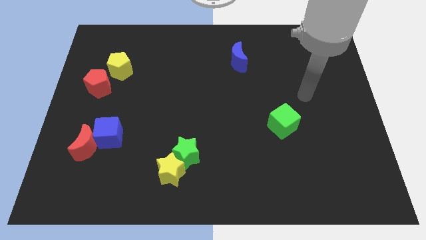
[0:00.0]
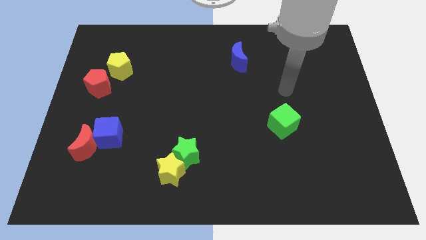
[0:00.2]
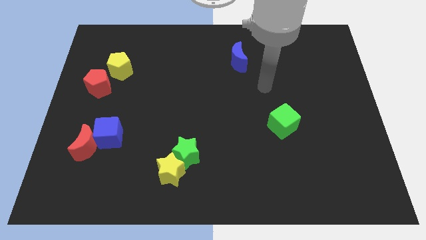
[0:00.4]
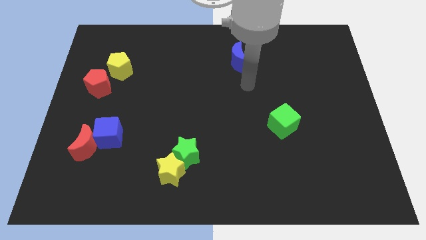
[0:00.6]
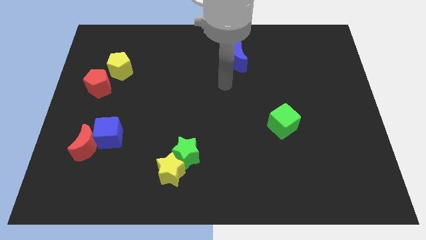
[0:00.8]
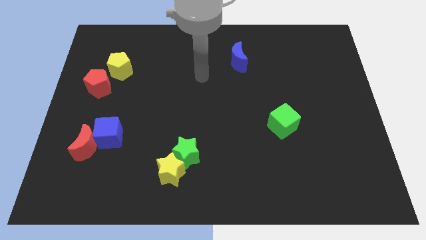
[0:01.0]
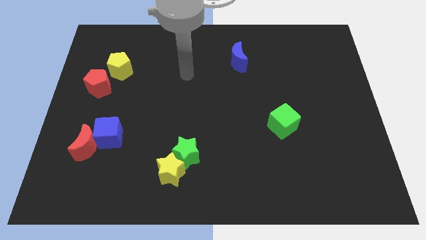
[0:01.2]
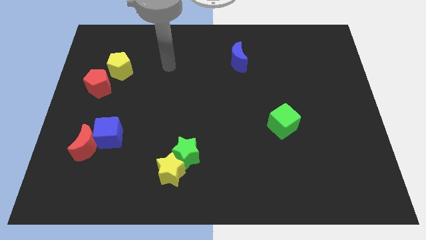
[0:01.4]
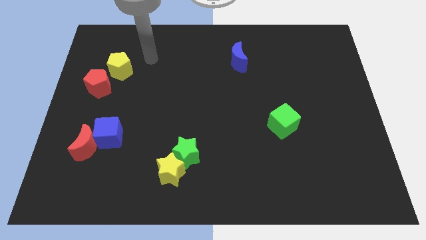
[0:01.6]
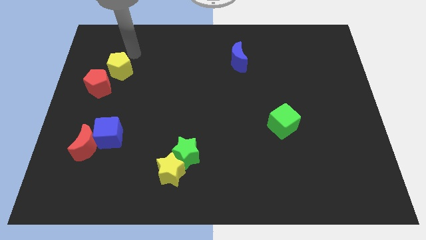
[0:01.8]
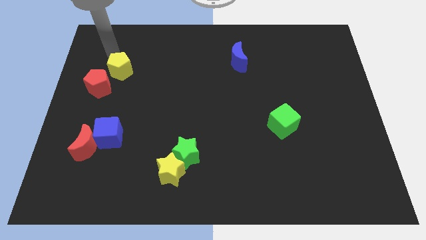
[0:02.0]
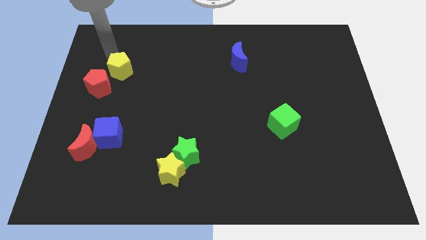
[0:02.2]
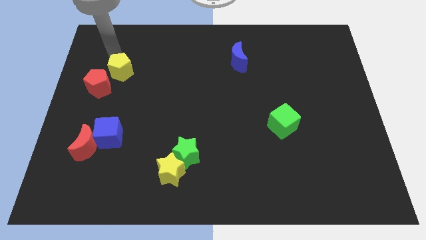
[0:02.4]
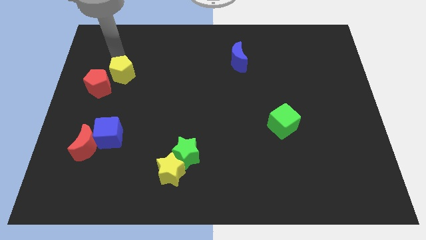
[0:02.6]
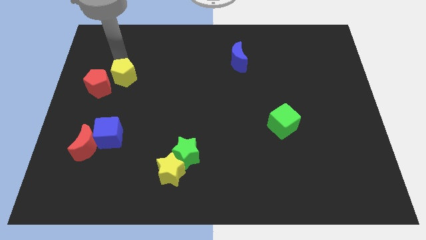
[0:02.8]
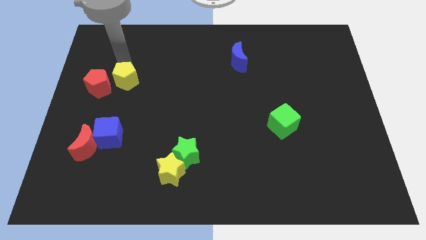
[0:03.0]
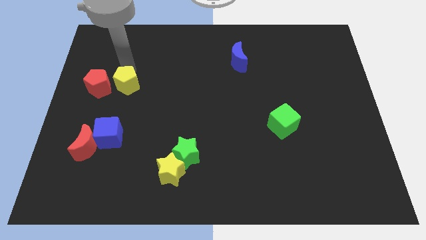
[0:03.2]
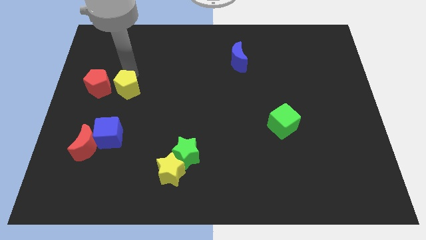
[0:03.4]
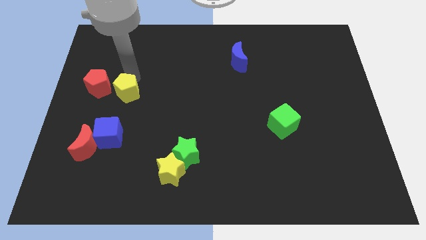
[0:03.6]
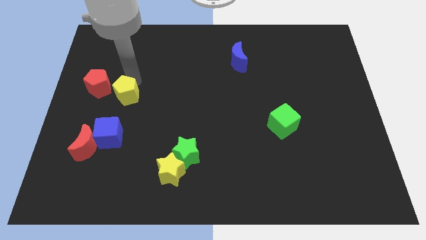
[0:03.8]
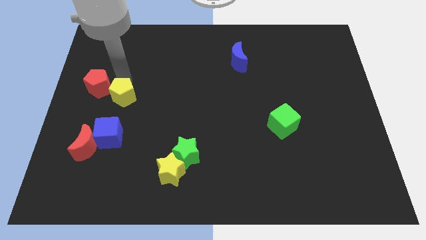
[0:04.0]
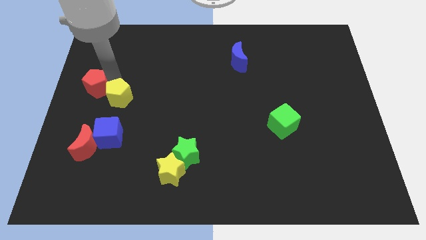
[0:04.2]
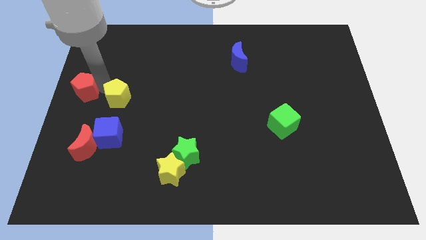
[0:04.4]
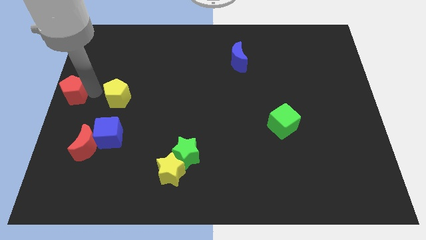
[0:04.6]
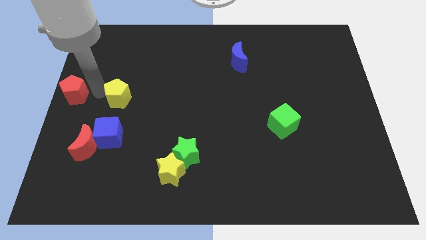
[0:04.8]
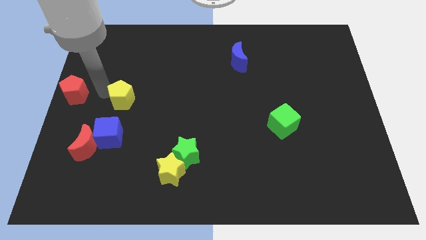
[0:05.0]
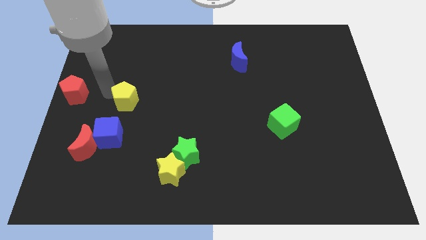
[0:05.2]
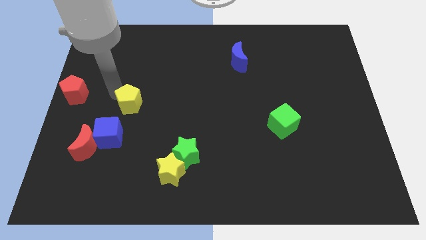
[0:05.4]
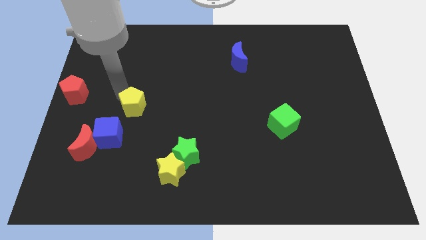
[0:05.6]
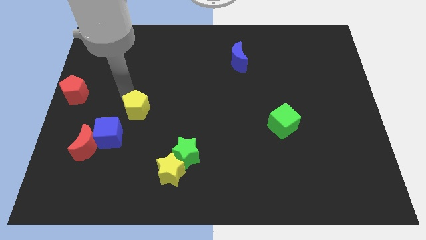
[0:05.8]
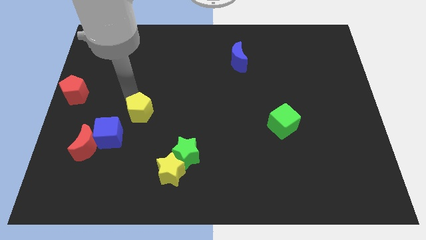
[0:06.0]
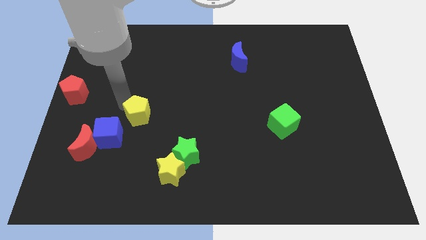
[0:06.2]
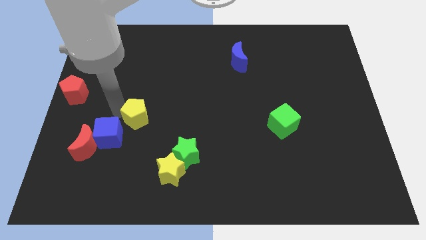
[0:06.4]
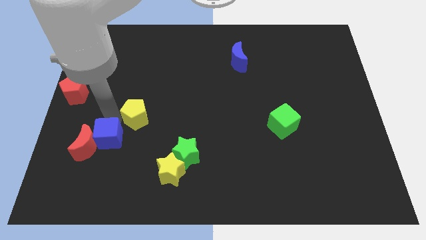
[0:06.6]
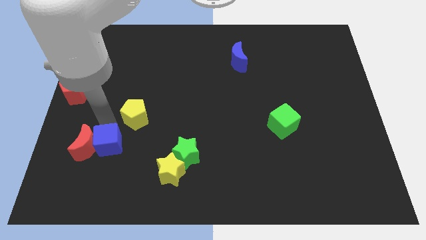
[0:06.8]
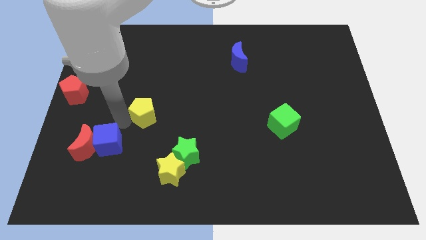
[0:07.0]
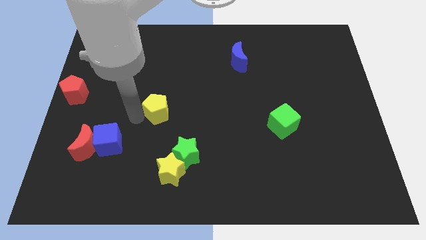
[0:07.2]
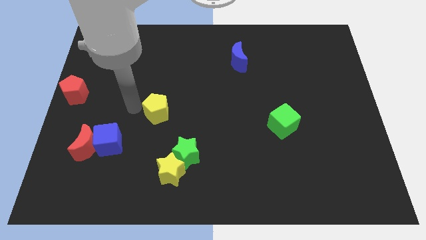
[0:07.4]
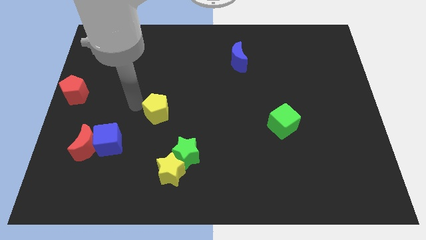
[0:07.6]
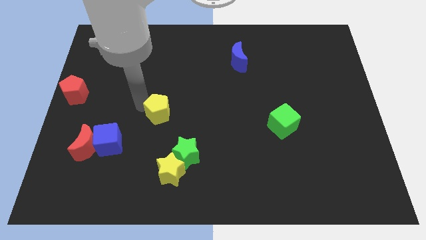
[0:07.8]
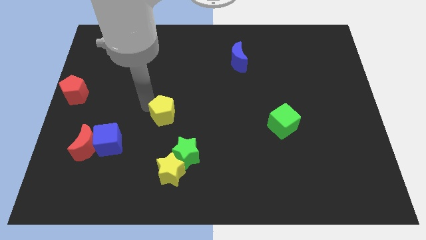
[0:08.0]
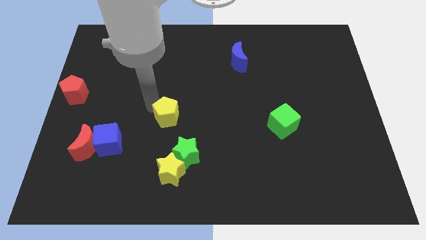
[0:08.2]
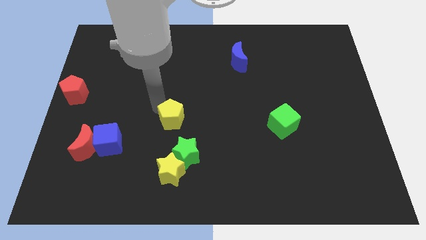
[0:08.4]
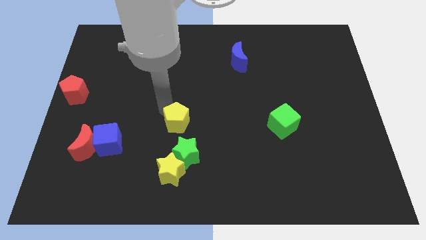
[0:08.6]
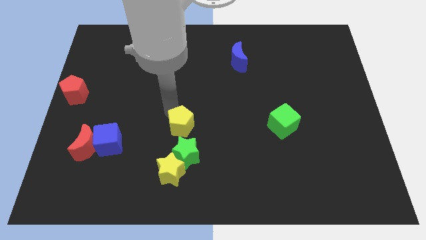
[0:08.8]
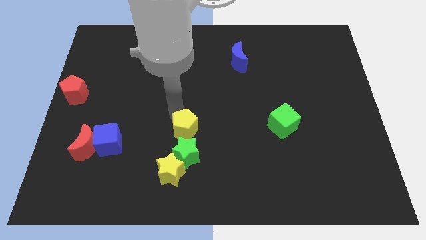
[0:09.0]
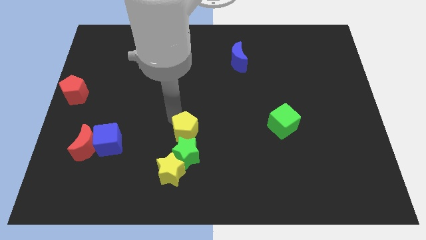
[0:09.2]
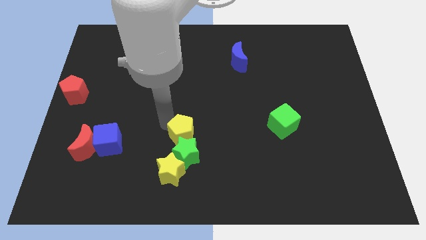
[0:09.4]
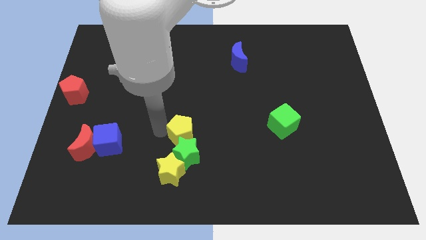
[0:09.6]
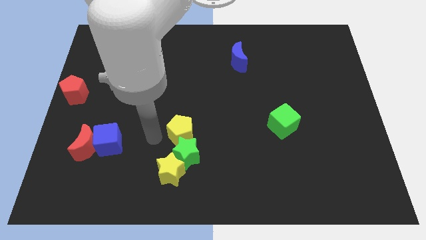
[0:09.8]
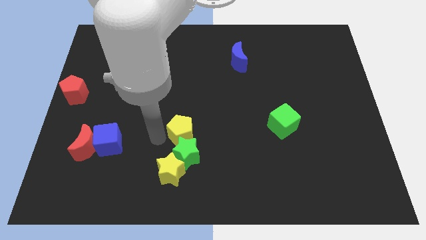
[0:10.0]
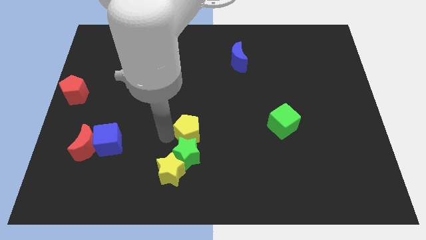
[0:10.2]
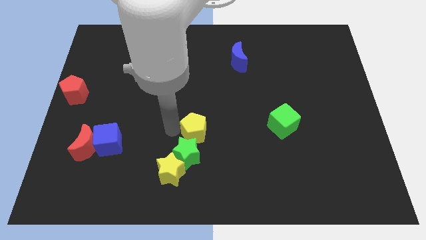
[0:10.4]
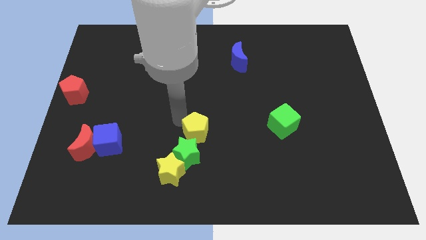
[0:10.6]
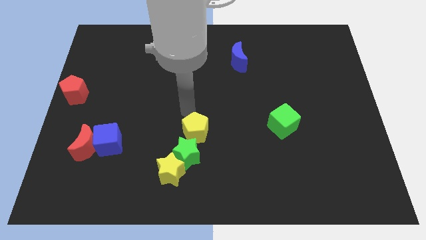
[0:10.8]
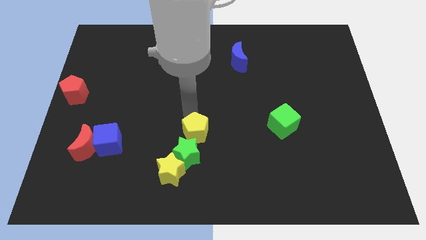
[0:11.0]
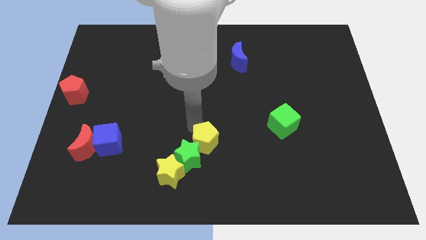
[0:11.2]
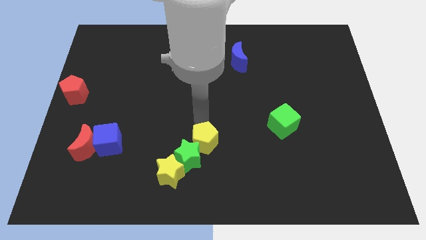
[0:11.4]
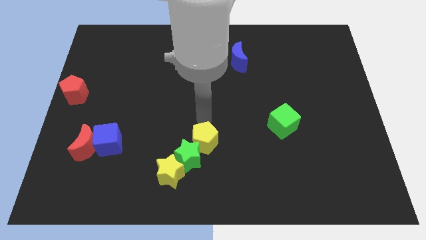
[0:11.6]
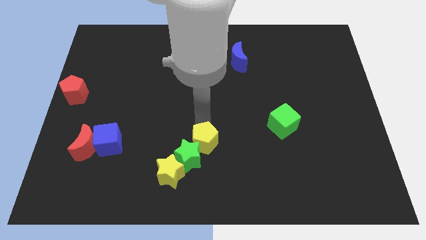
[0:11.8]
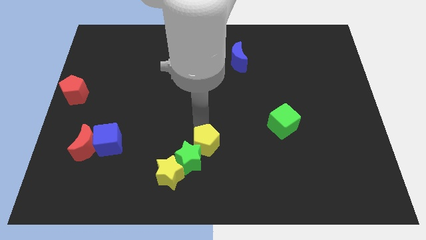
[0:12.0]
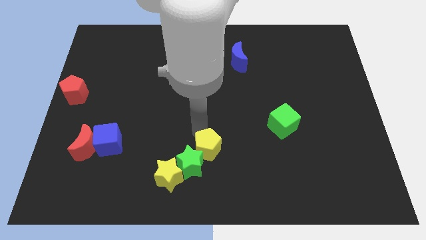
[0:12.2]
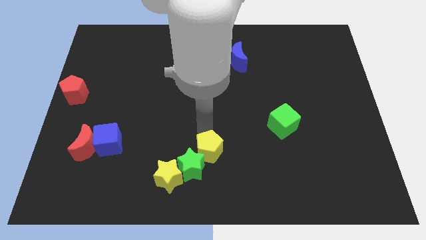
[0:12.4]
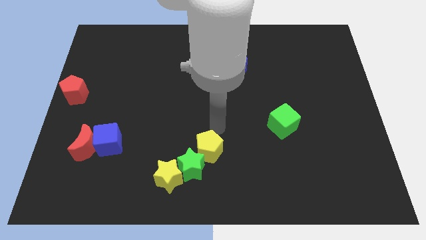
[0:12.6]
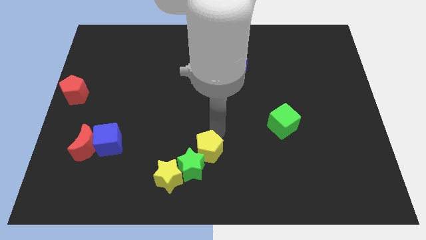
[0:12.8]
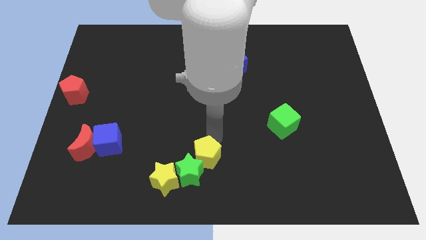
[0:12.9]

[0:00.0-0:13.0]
slide the yellow pentagon to the bottom

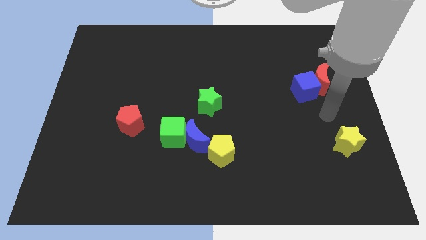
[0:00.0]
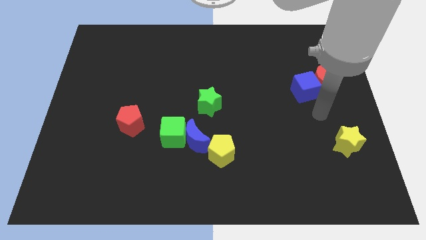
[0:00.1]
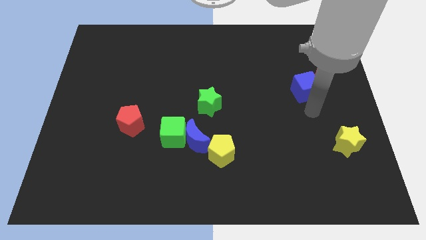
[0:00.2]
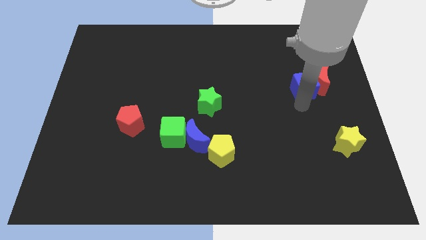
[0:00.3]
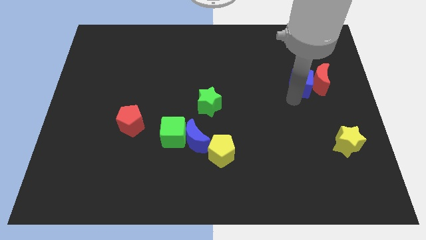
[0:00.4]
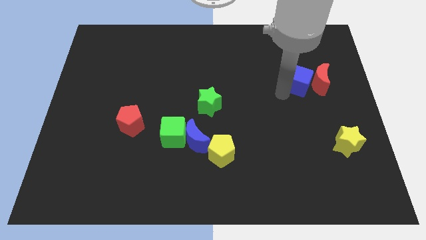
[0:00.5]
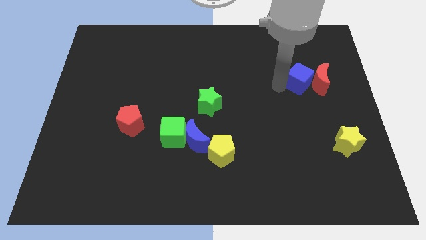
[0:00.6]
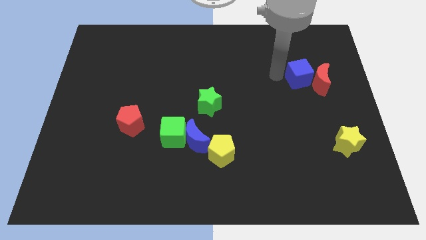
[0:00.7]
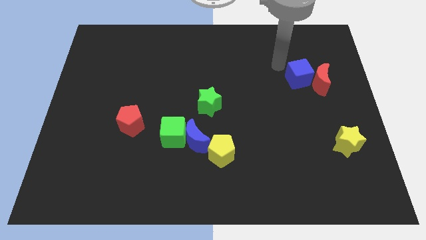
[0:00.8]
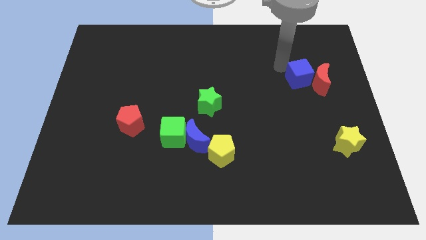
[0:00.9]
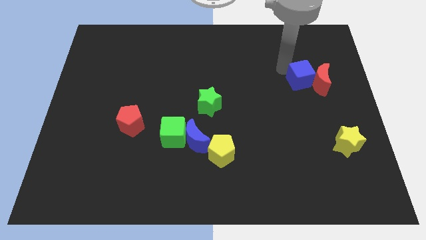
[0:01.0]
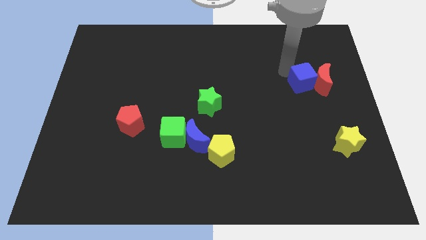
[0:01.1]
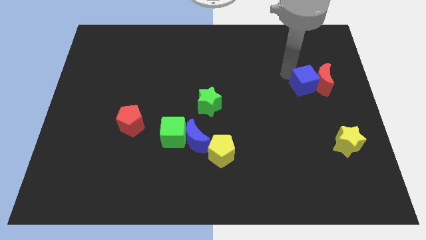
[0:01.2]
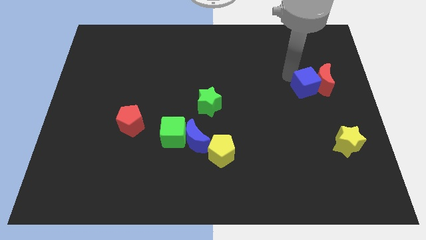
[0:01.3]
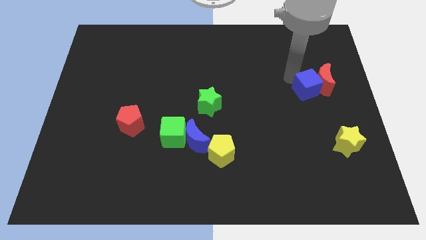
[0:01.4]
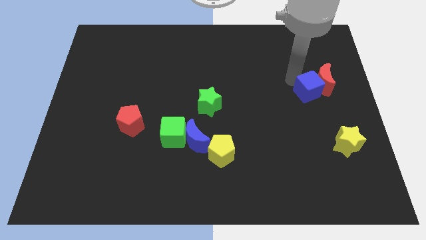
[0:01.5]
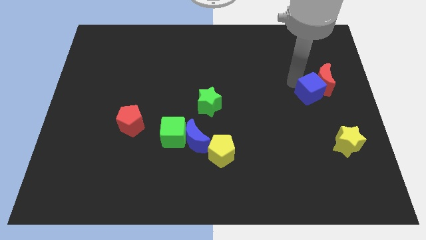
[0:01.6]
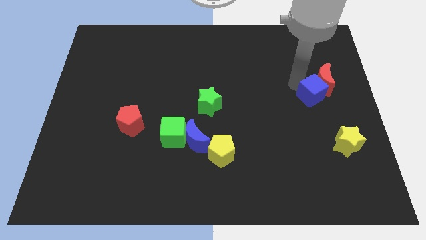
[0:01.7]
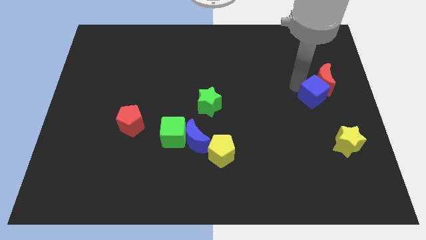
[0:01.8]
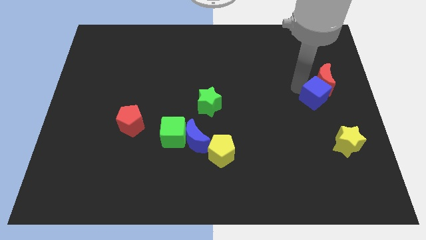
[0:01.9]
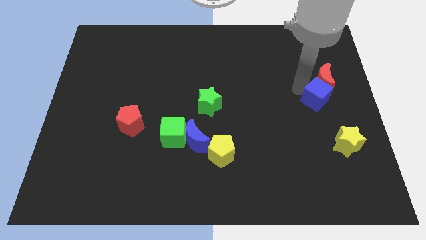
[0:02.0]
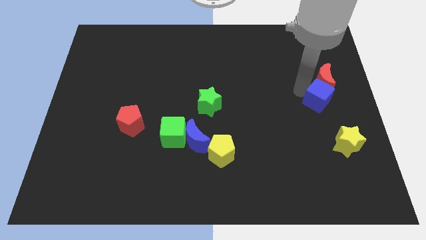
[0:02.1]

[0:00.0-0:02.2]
slide the blue cube to the right side
